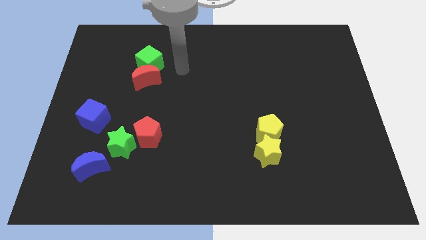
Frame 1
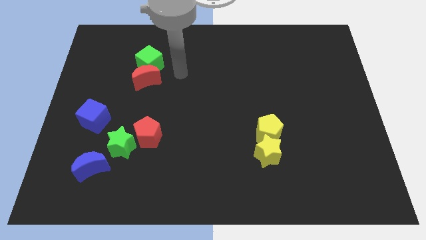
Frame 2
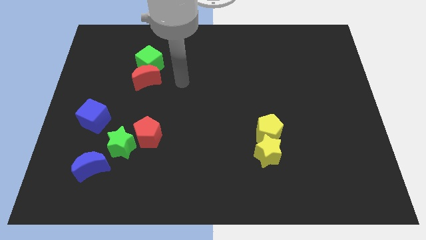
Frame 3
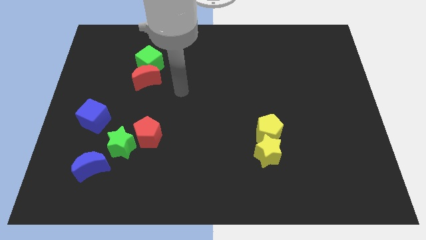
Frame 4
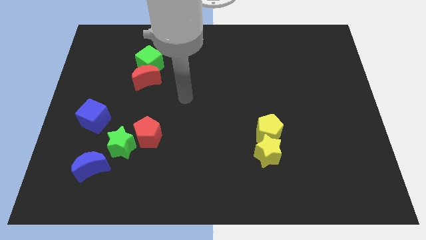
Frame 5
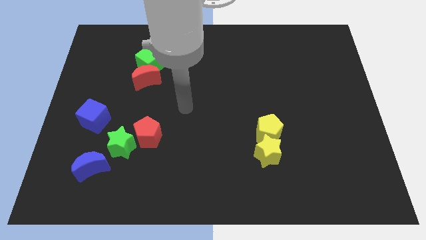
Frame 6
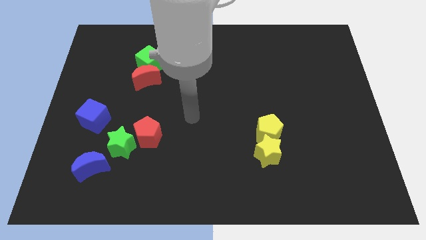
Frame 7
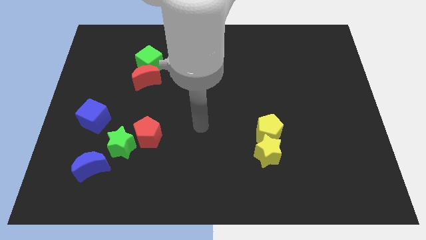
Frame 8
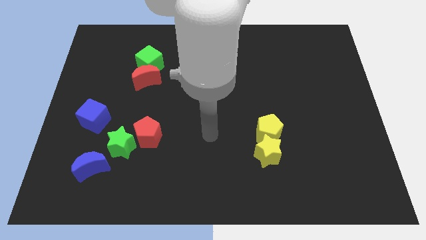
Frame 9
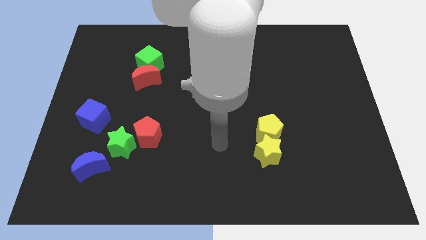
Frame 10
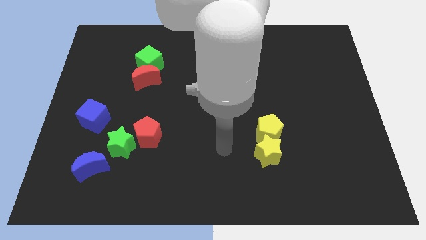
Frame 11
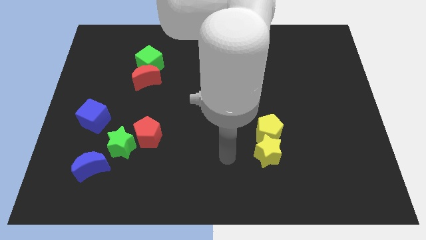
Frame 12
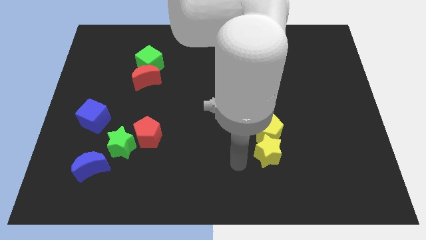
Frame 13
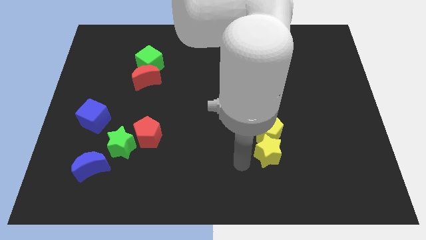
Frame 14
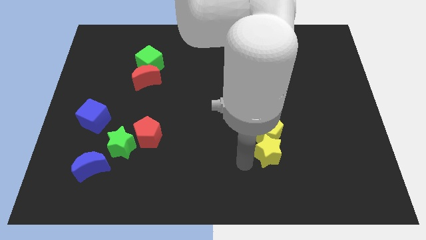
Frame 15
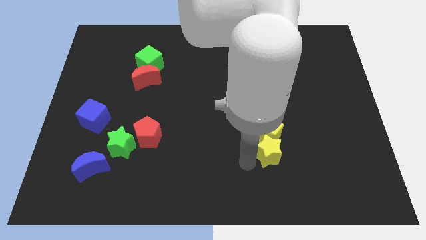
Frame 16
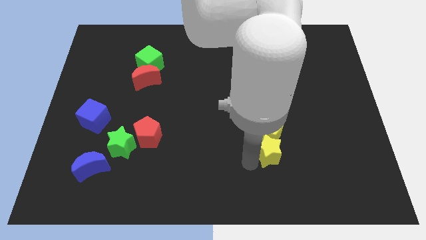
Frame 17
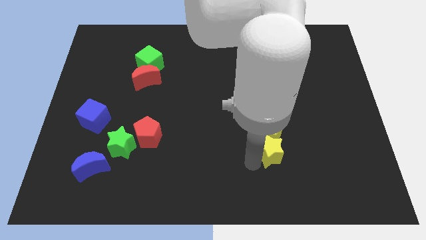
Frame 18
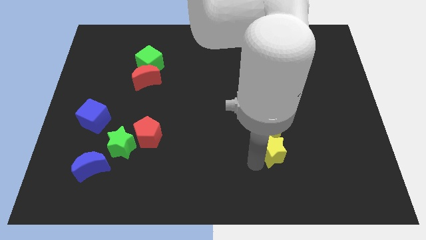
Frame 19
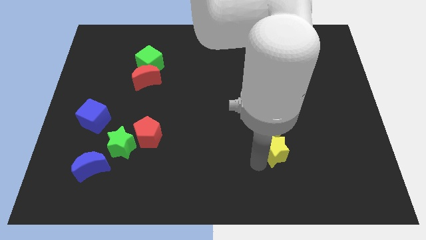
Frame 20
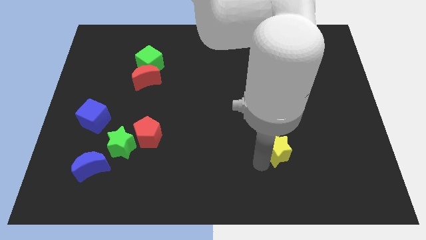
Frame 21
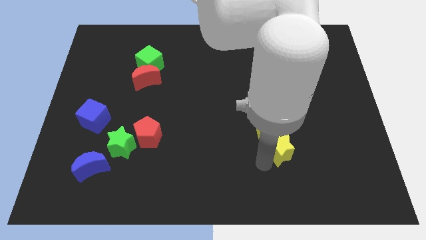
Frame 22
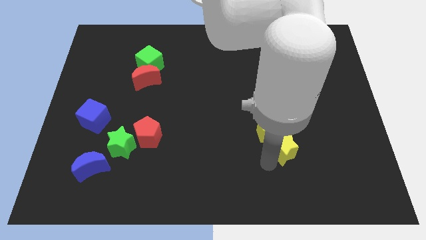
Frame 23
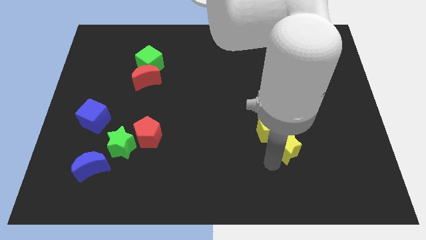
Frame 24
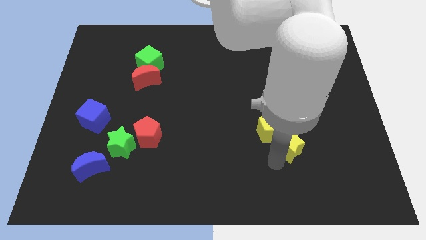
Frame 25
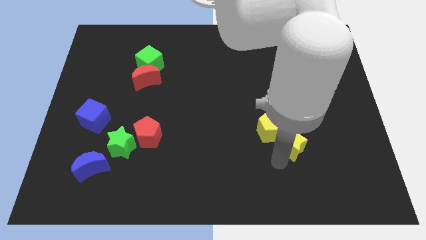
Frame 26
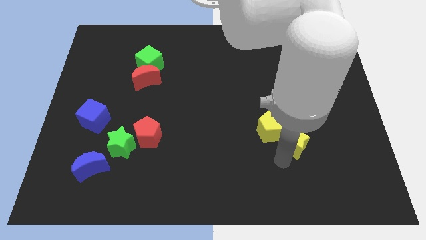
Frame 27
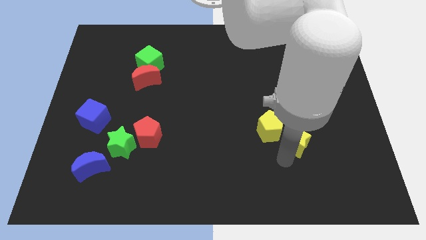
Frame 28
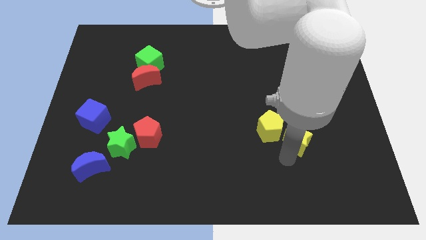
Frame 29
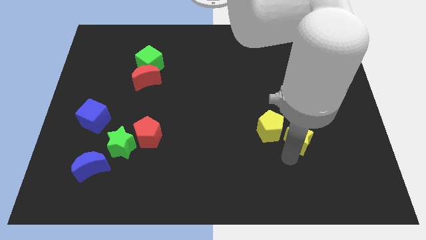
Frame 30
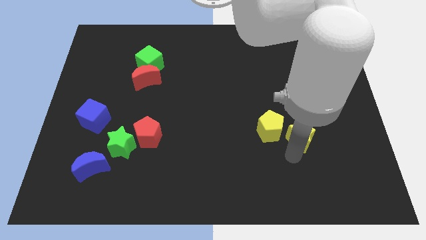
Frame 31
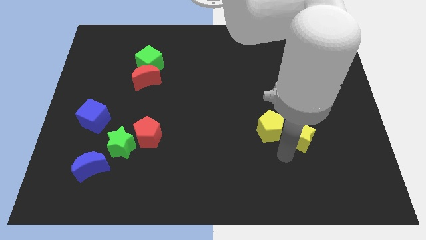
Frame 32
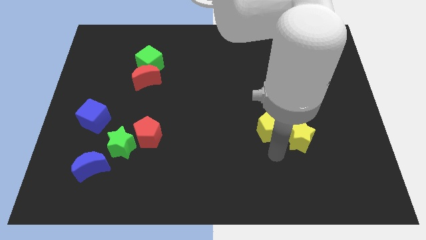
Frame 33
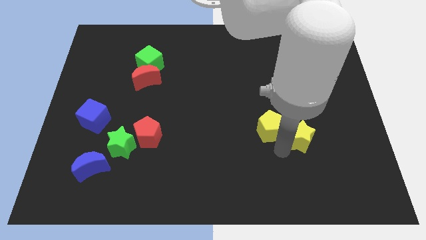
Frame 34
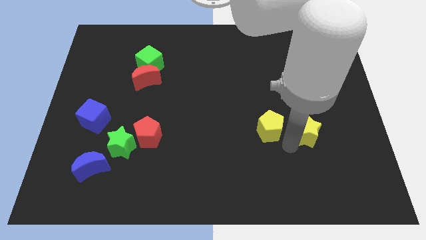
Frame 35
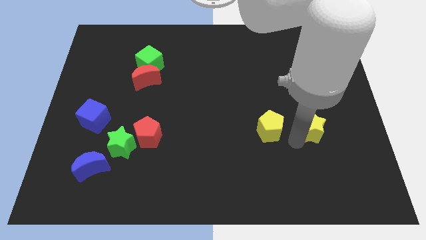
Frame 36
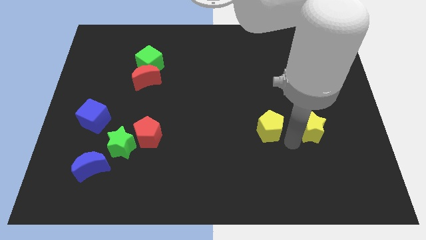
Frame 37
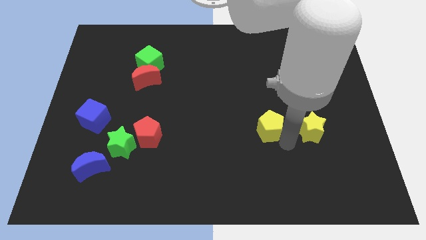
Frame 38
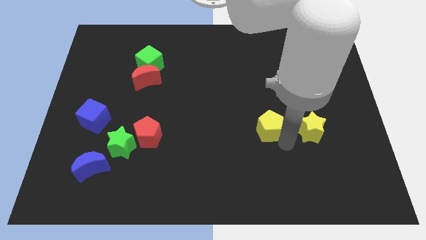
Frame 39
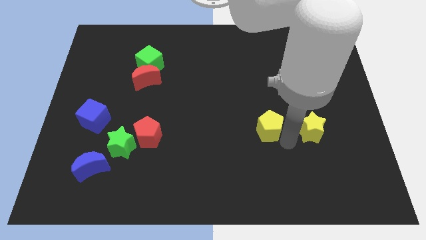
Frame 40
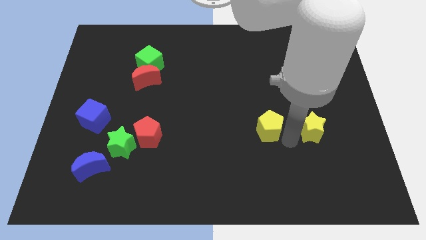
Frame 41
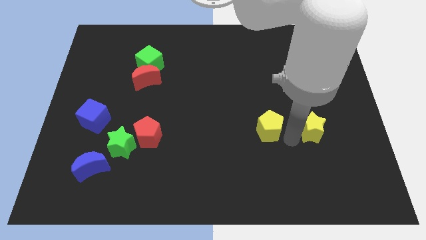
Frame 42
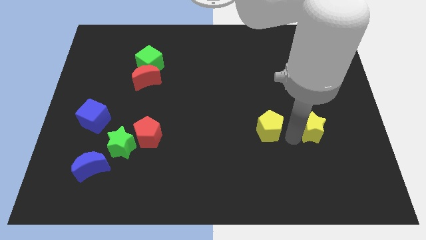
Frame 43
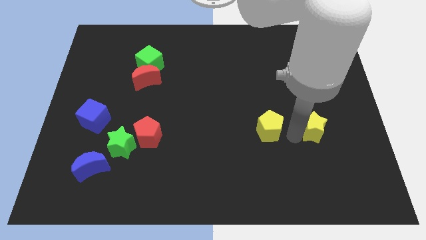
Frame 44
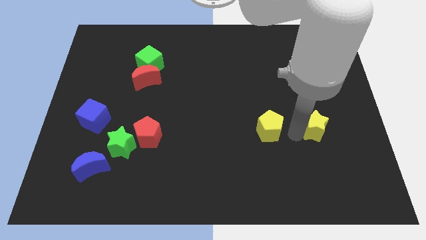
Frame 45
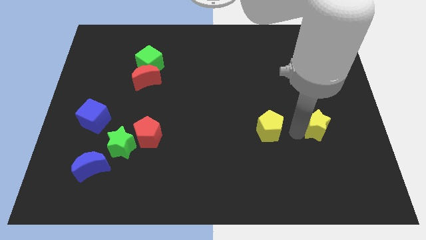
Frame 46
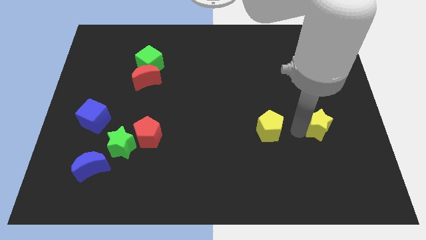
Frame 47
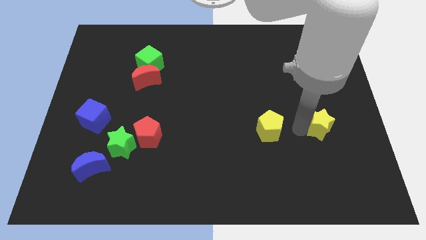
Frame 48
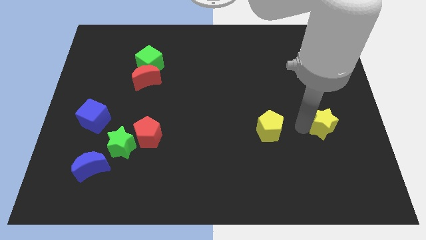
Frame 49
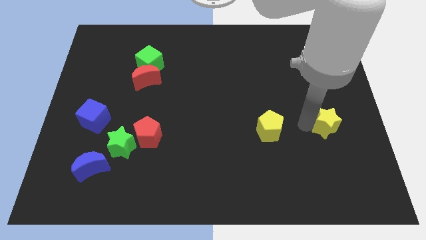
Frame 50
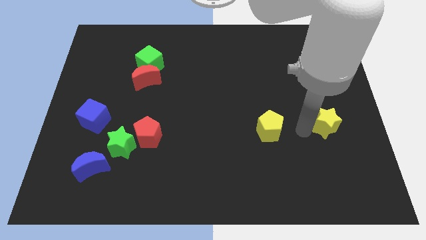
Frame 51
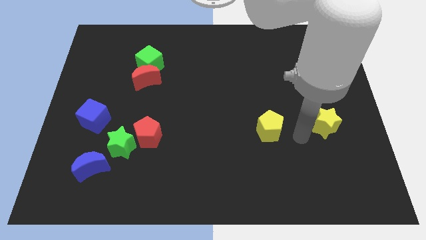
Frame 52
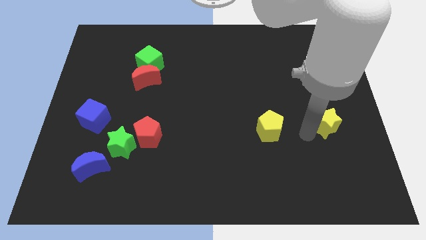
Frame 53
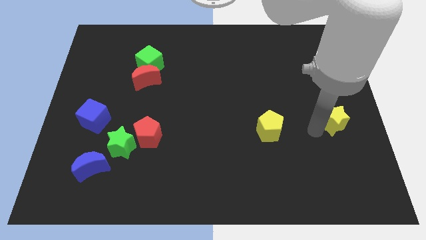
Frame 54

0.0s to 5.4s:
put the yellow star to the center right

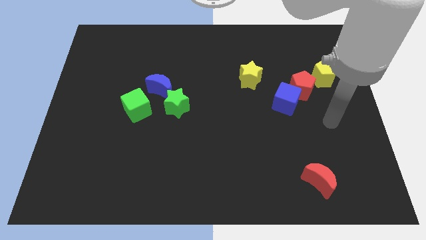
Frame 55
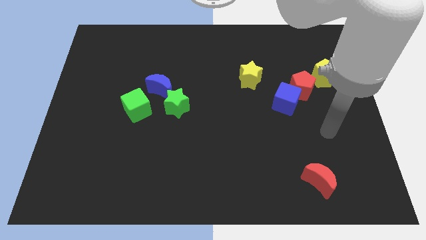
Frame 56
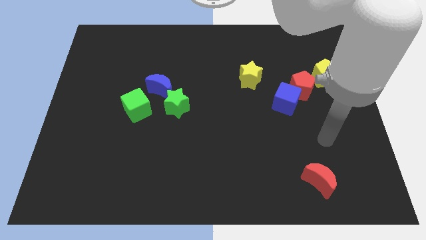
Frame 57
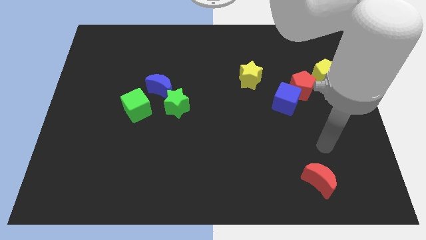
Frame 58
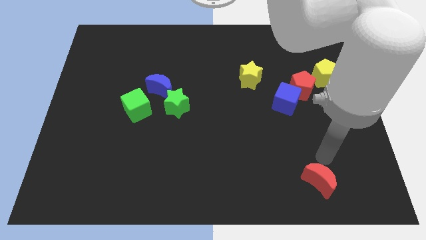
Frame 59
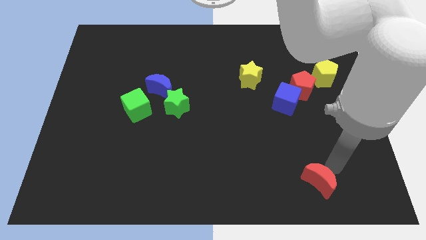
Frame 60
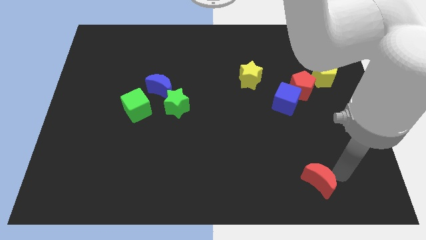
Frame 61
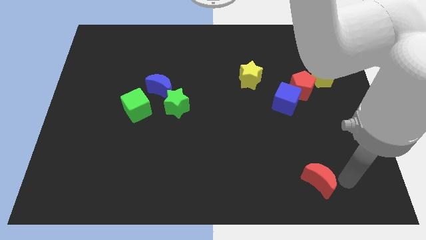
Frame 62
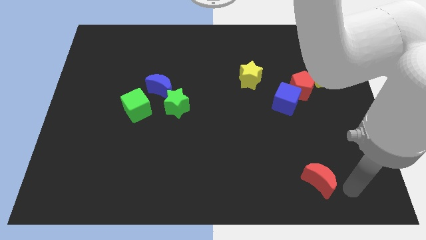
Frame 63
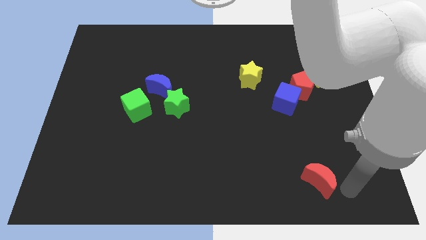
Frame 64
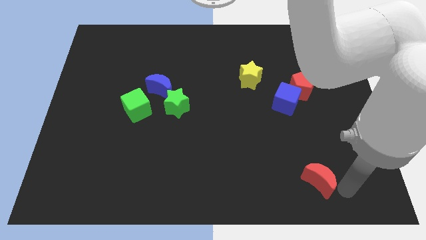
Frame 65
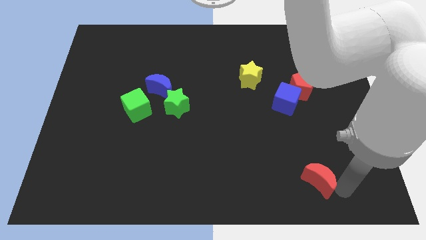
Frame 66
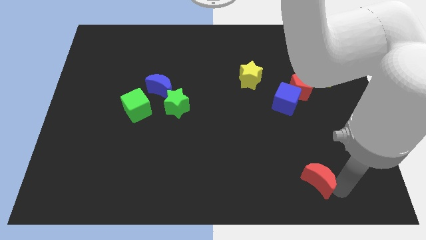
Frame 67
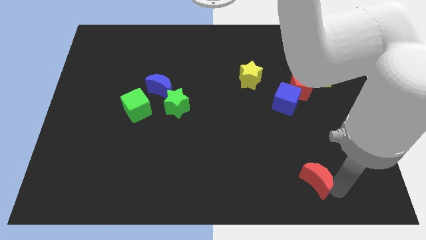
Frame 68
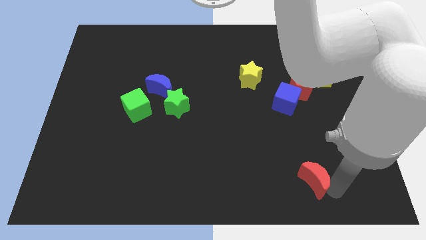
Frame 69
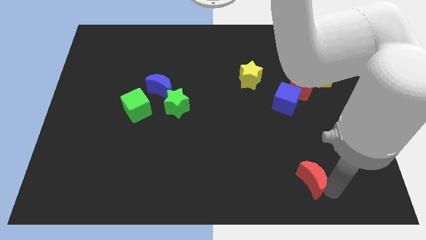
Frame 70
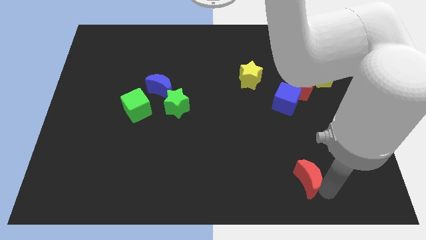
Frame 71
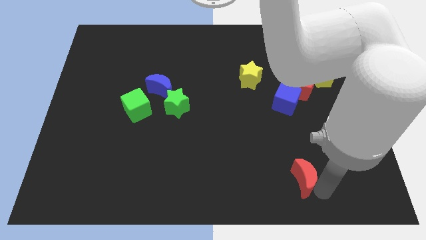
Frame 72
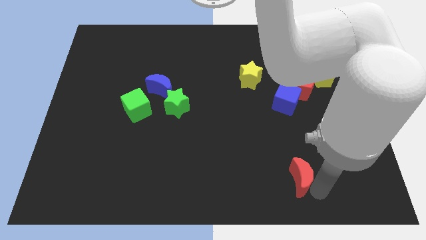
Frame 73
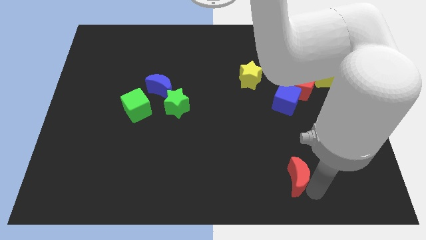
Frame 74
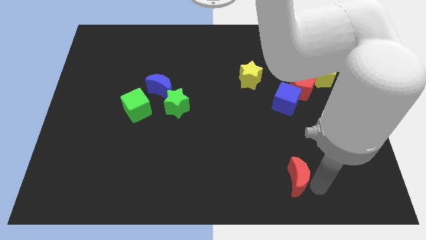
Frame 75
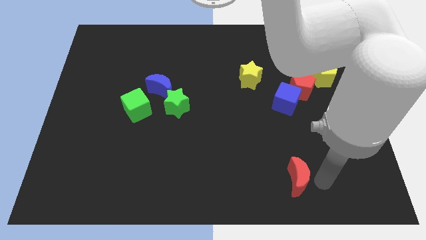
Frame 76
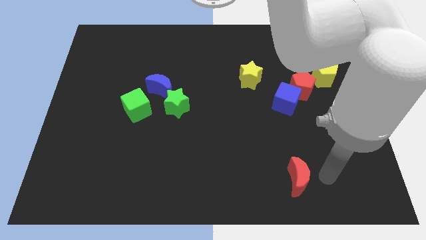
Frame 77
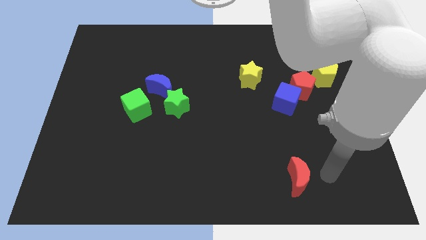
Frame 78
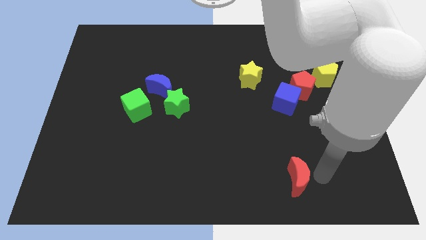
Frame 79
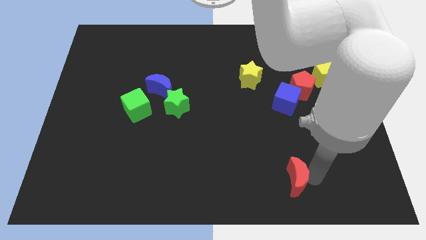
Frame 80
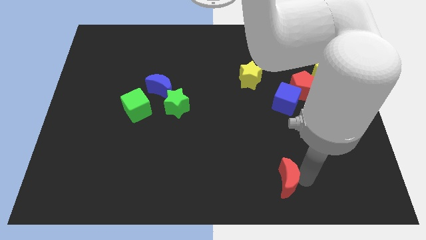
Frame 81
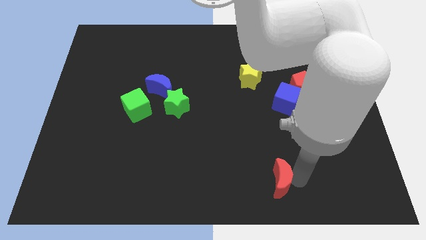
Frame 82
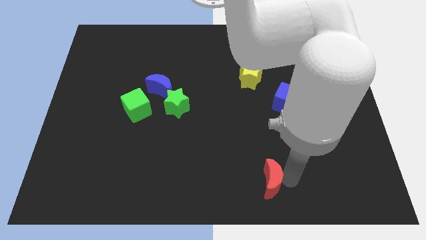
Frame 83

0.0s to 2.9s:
slide the red moon to the bottom side
